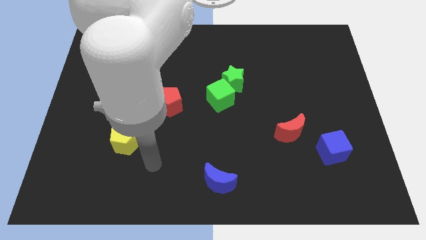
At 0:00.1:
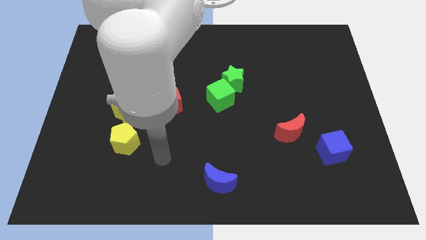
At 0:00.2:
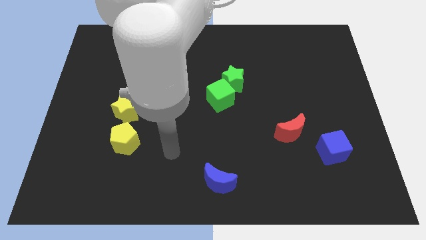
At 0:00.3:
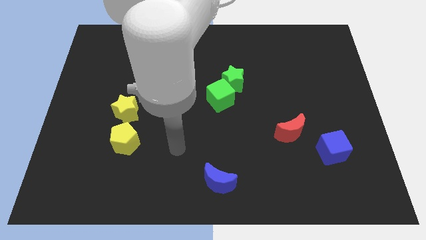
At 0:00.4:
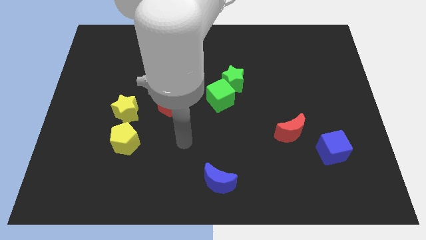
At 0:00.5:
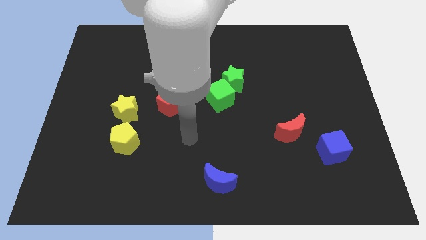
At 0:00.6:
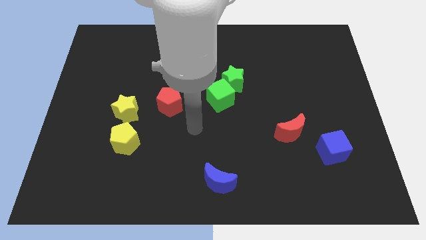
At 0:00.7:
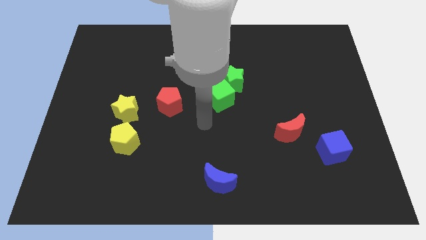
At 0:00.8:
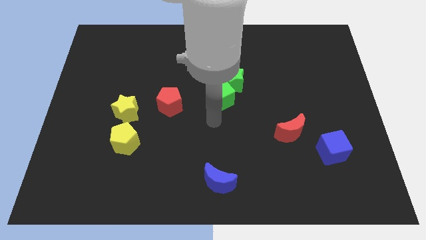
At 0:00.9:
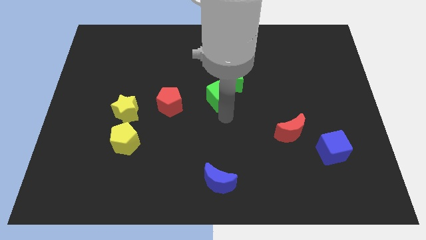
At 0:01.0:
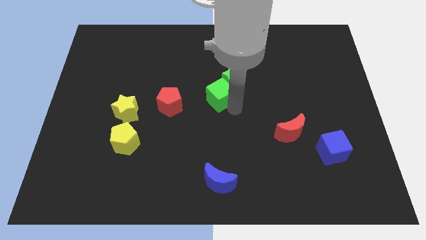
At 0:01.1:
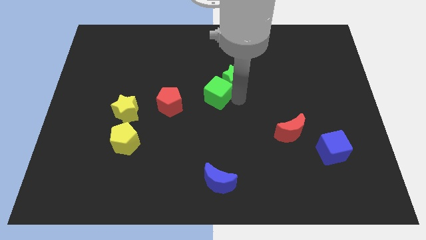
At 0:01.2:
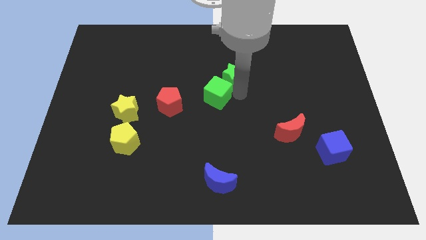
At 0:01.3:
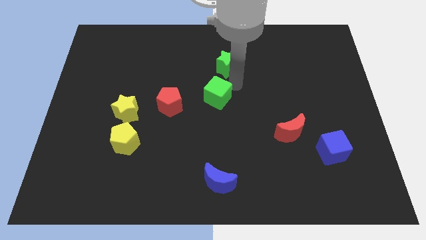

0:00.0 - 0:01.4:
separate the green cube from the green star

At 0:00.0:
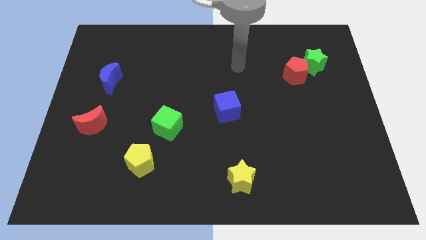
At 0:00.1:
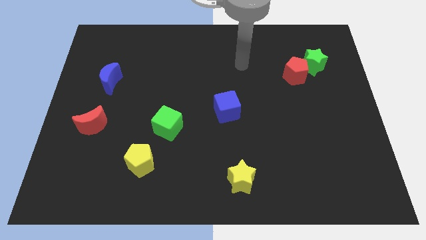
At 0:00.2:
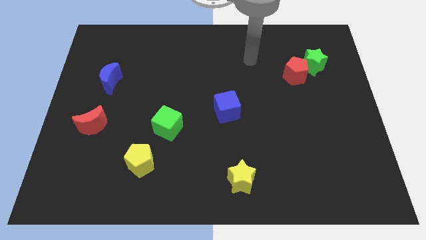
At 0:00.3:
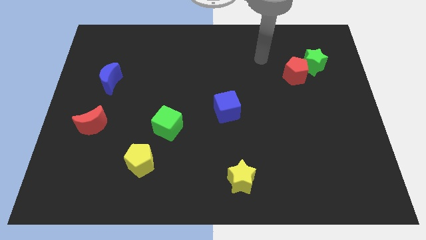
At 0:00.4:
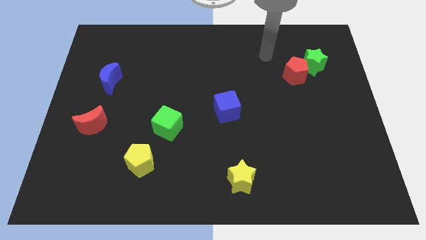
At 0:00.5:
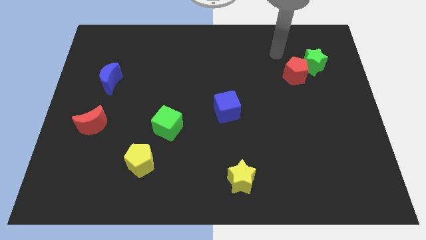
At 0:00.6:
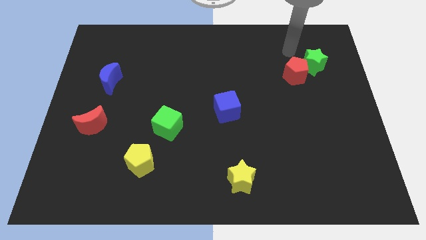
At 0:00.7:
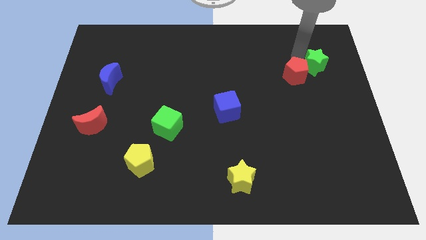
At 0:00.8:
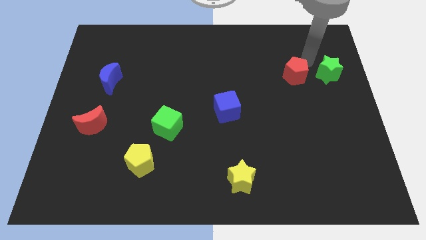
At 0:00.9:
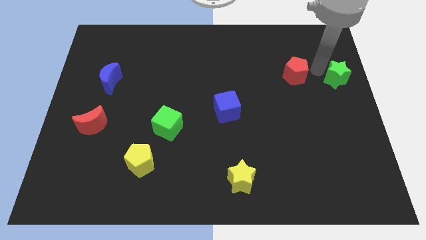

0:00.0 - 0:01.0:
separate the red pentagon from the green star

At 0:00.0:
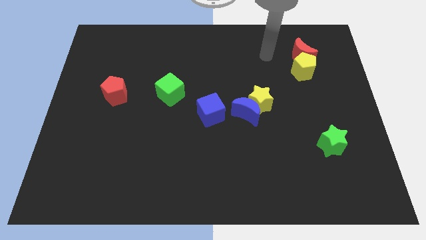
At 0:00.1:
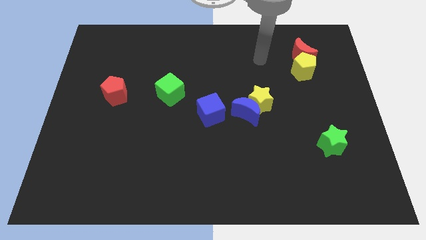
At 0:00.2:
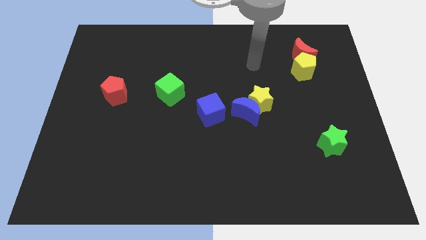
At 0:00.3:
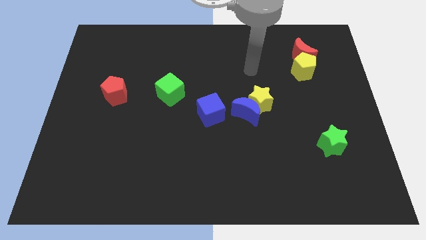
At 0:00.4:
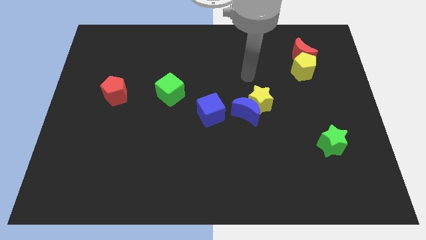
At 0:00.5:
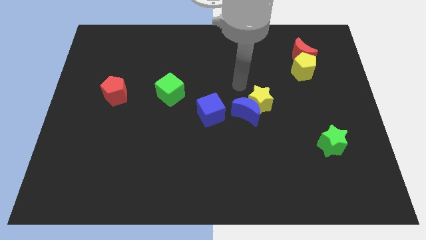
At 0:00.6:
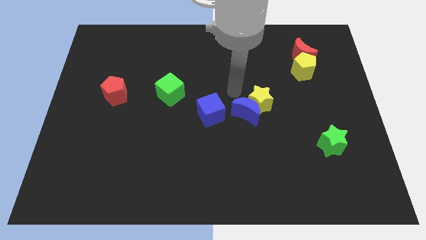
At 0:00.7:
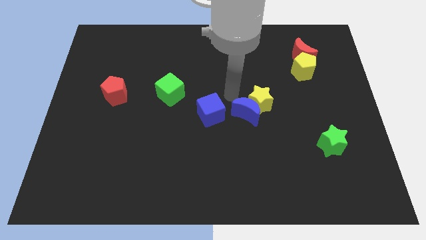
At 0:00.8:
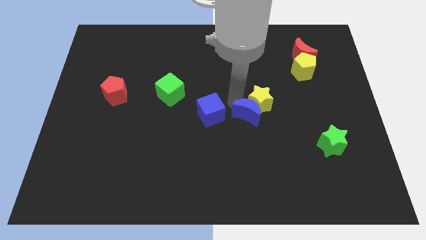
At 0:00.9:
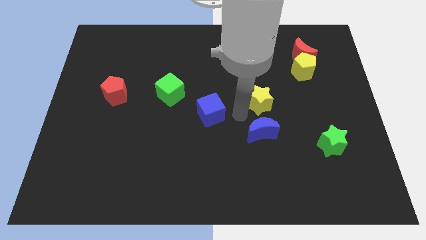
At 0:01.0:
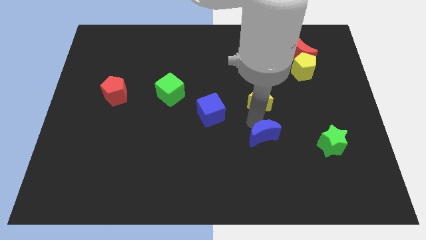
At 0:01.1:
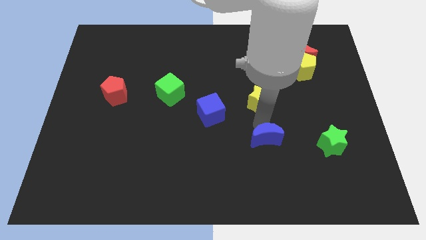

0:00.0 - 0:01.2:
separate the yellow star from the blue moon

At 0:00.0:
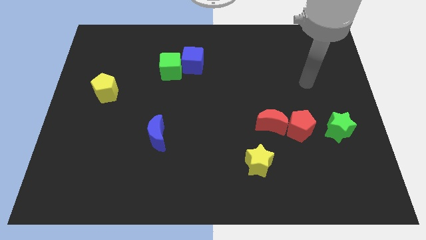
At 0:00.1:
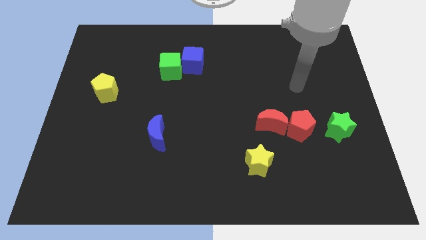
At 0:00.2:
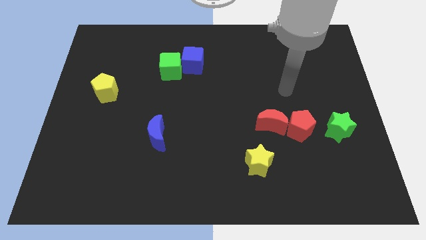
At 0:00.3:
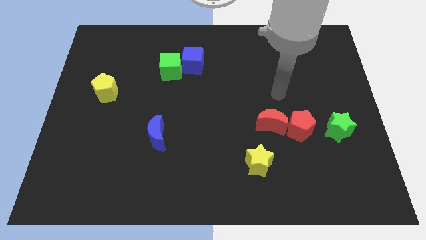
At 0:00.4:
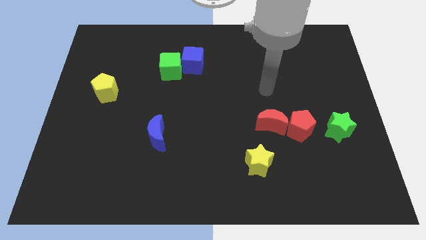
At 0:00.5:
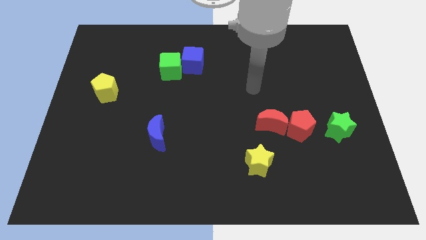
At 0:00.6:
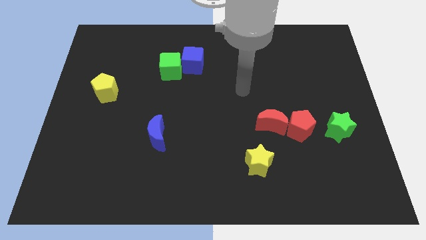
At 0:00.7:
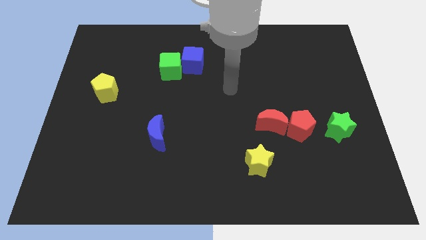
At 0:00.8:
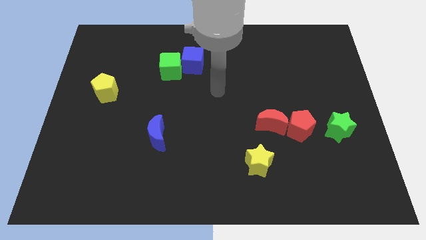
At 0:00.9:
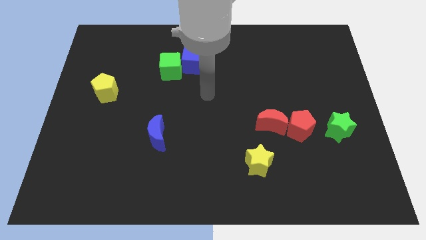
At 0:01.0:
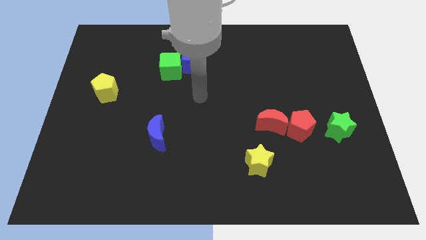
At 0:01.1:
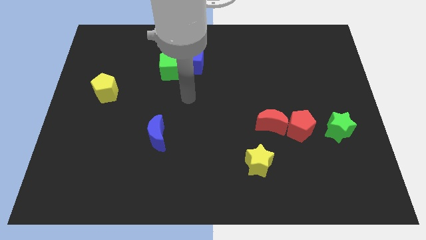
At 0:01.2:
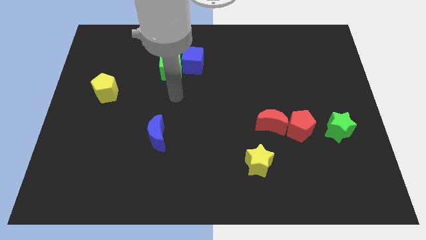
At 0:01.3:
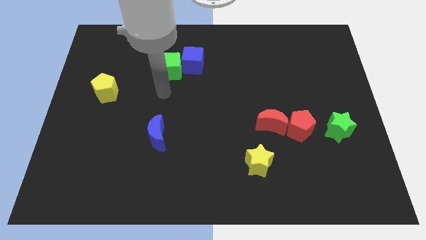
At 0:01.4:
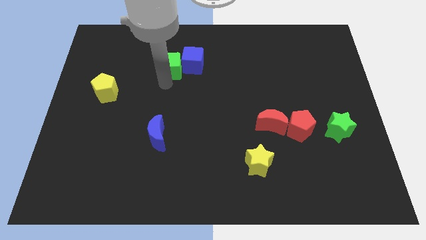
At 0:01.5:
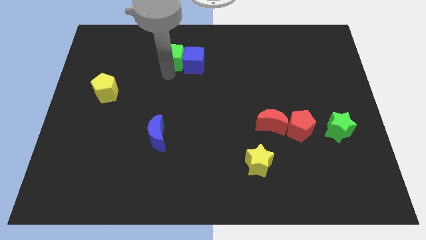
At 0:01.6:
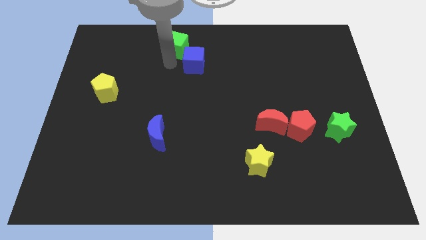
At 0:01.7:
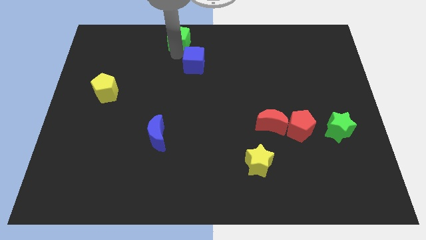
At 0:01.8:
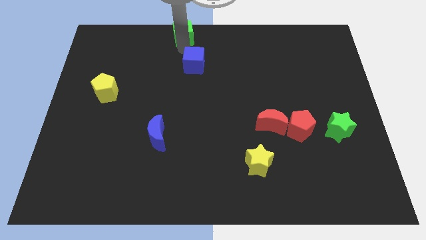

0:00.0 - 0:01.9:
pull the blue cube apart from the green cube

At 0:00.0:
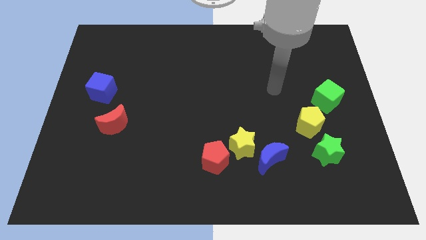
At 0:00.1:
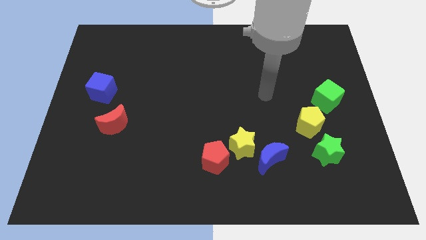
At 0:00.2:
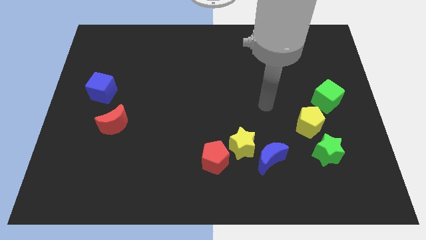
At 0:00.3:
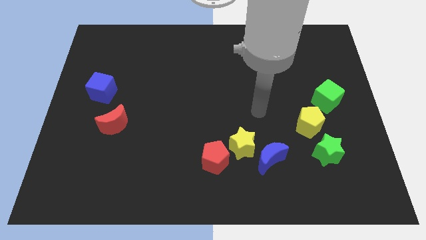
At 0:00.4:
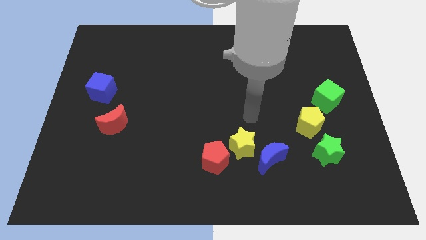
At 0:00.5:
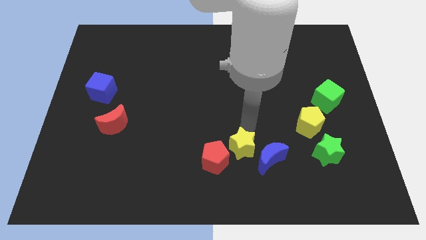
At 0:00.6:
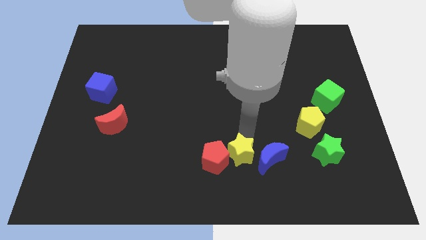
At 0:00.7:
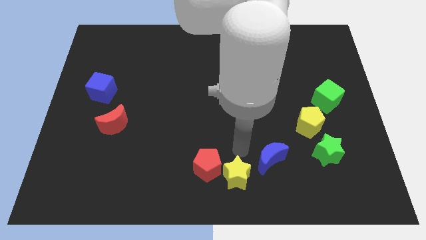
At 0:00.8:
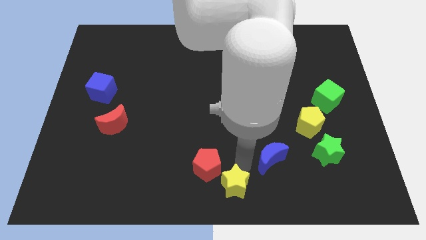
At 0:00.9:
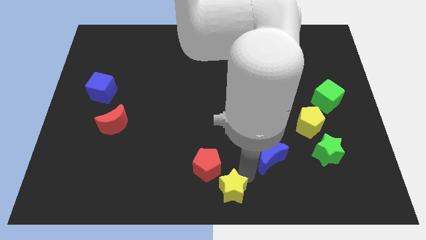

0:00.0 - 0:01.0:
move the blue moon away from the yellow star

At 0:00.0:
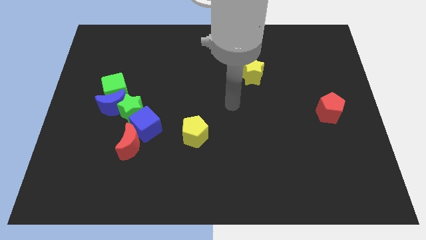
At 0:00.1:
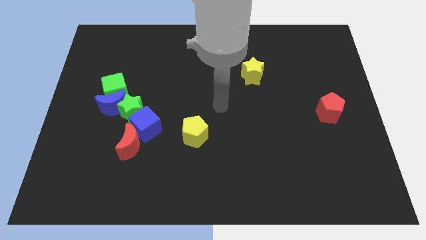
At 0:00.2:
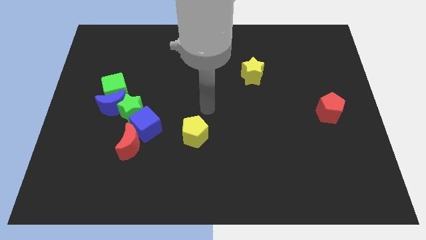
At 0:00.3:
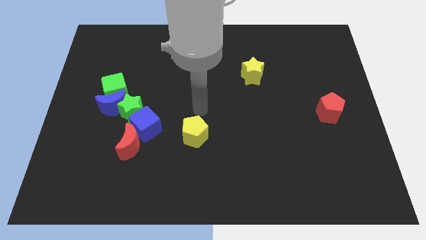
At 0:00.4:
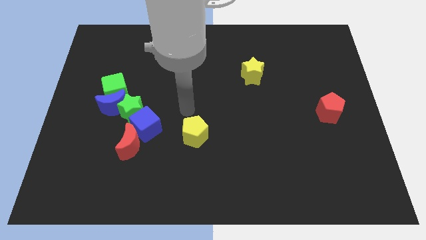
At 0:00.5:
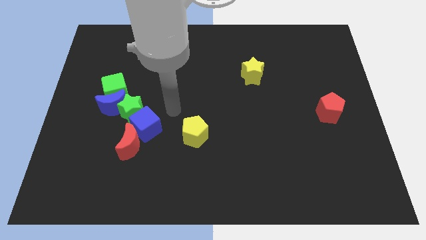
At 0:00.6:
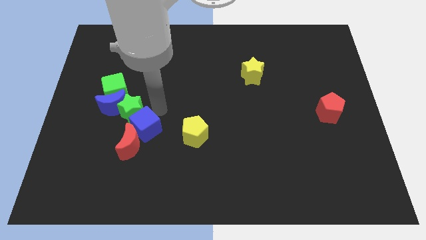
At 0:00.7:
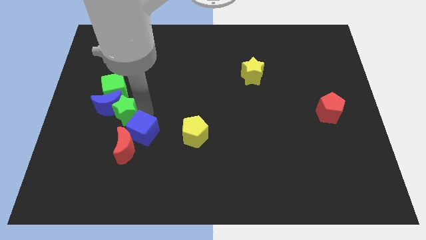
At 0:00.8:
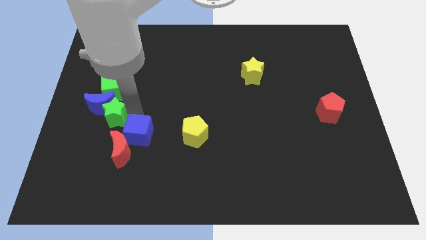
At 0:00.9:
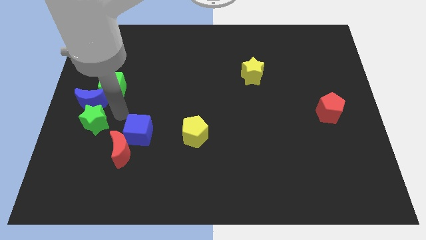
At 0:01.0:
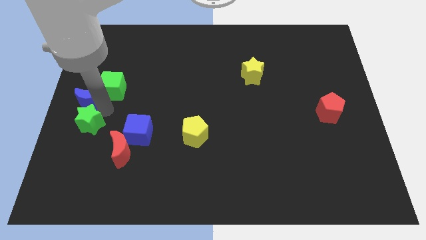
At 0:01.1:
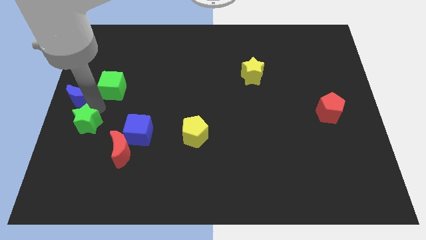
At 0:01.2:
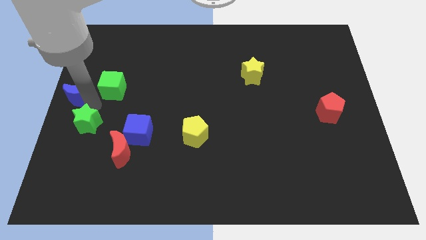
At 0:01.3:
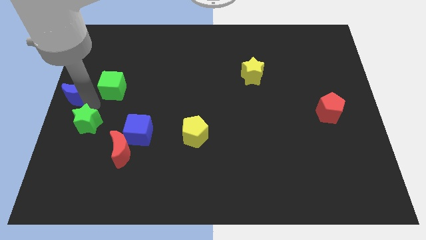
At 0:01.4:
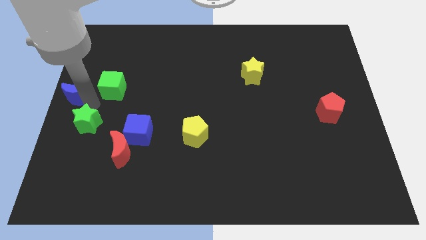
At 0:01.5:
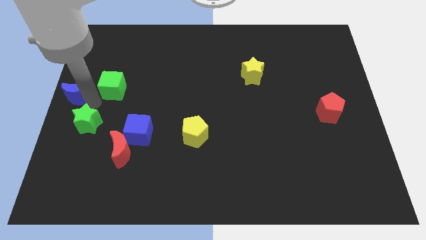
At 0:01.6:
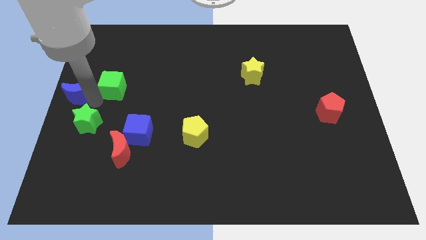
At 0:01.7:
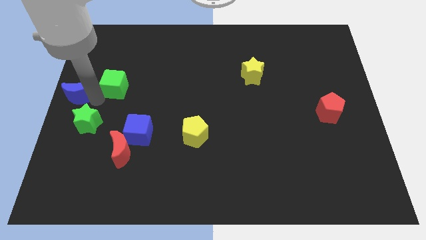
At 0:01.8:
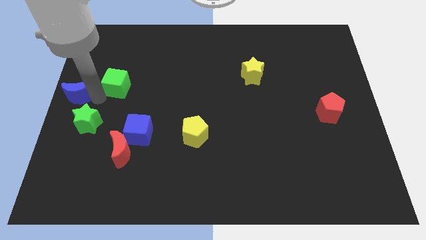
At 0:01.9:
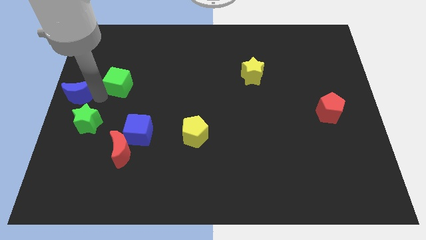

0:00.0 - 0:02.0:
separate the green cube from the blue moon and green star

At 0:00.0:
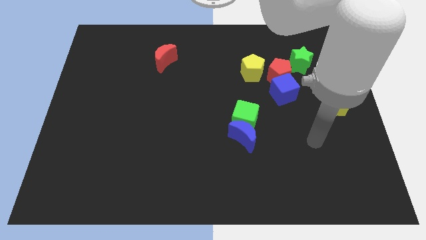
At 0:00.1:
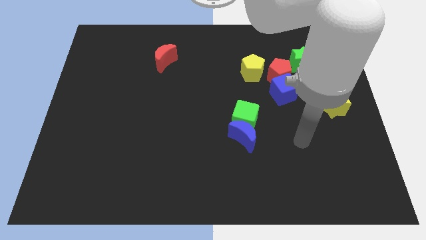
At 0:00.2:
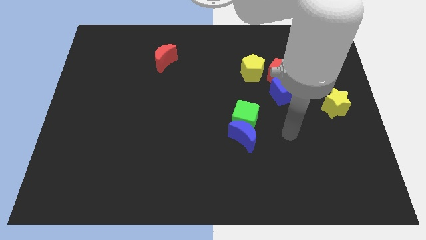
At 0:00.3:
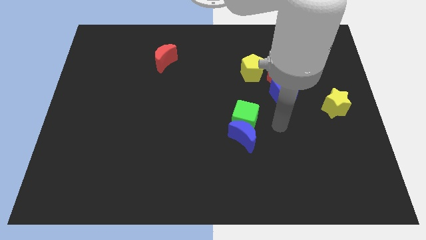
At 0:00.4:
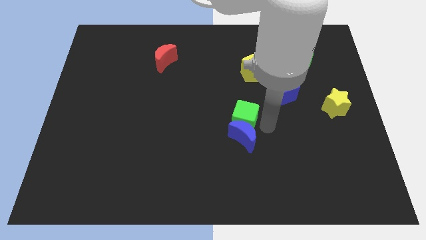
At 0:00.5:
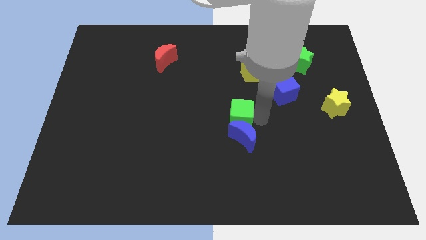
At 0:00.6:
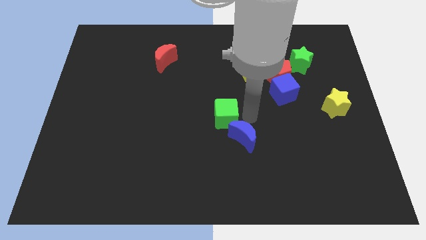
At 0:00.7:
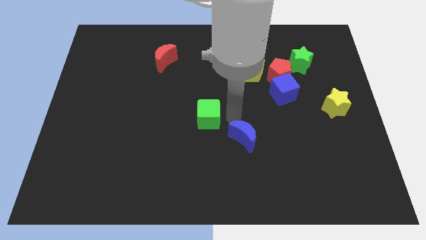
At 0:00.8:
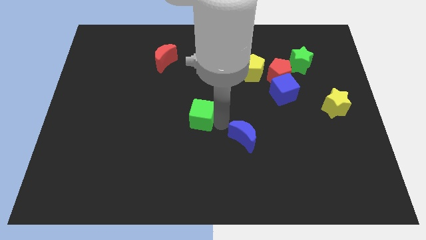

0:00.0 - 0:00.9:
pull the blue moon apart from the green cube

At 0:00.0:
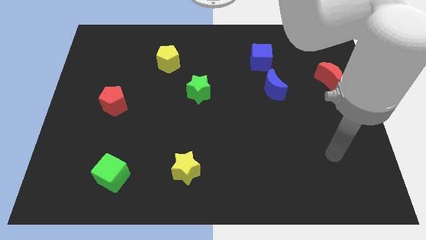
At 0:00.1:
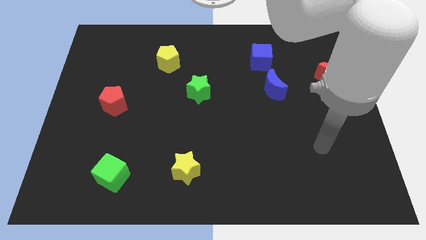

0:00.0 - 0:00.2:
pull the blue moon apart from the blue cube
